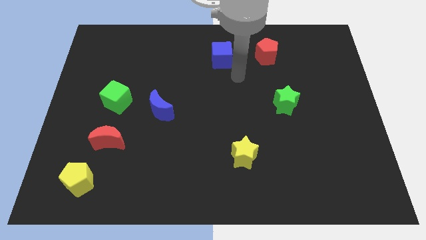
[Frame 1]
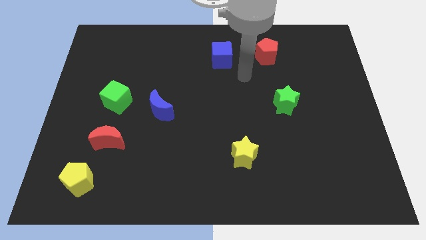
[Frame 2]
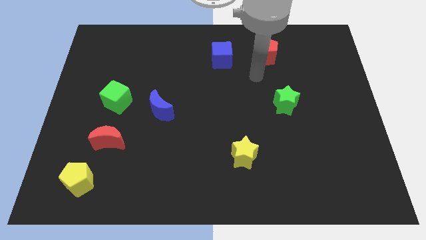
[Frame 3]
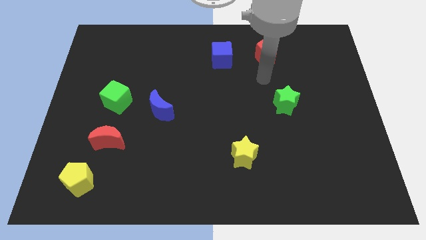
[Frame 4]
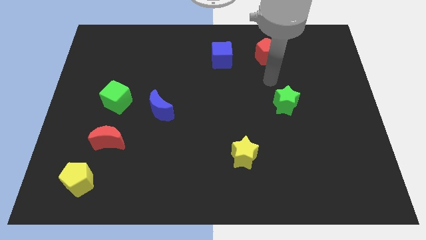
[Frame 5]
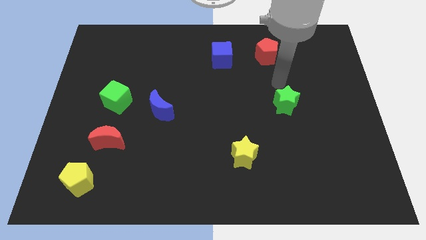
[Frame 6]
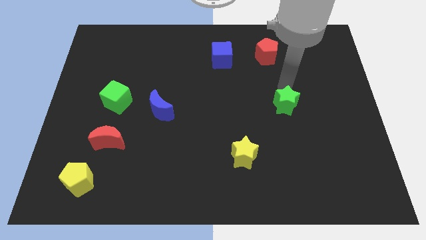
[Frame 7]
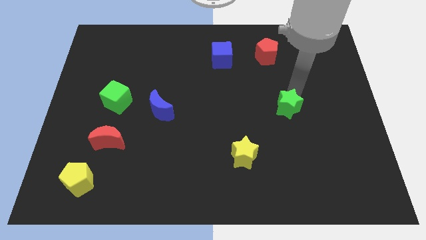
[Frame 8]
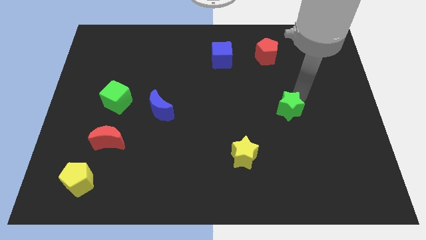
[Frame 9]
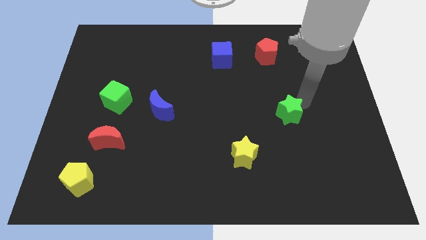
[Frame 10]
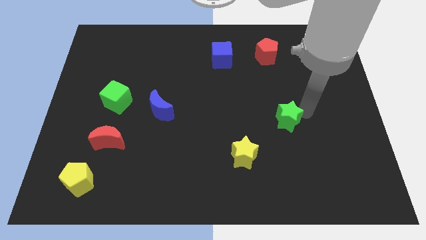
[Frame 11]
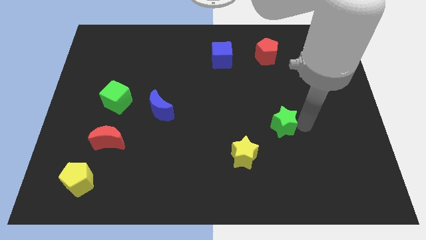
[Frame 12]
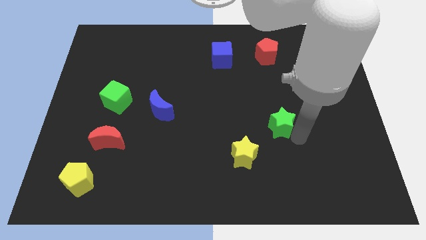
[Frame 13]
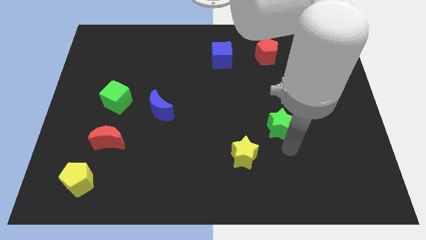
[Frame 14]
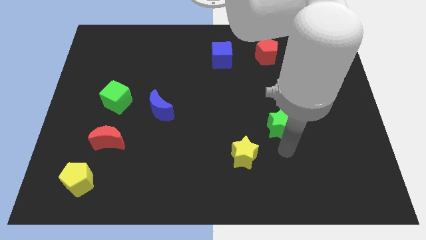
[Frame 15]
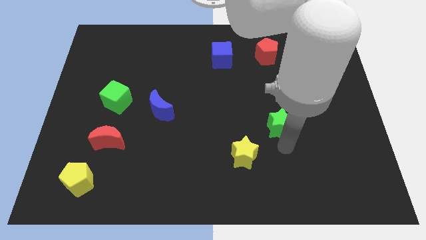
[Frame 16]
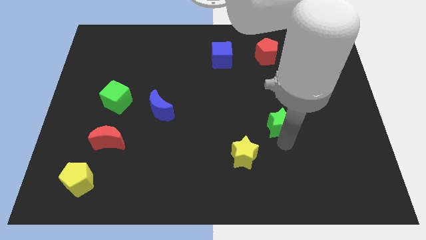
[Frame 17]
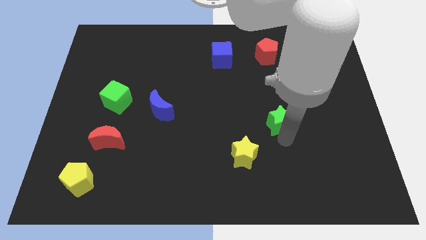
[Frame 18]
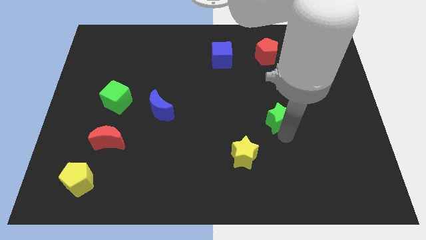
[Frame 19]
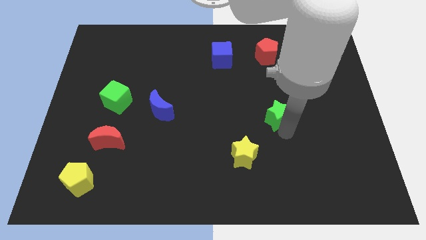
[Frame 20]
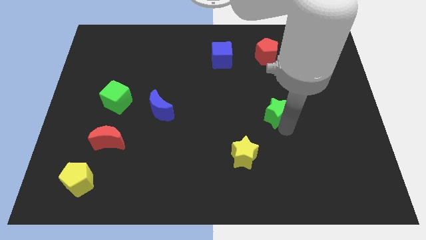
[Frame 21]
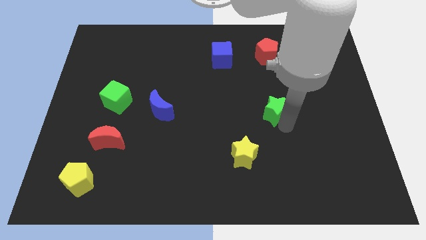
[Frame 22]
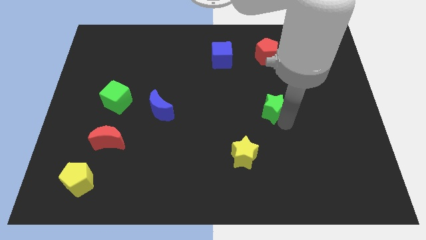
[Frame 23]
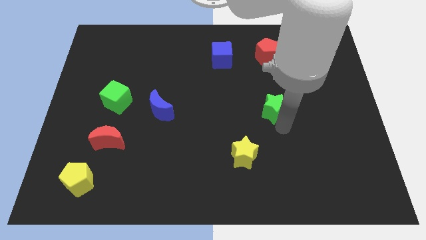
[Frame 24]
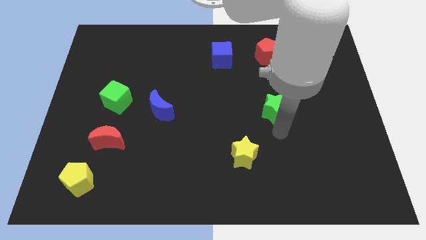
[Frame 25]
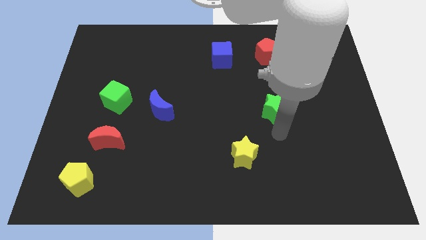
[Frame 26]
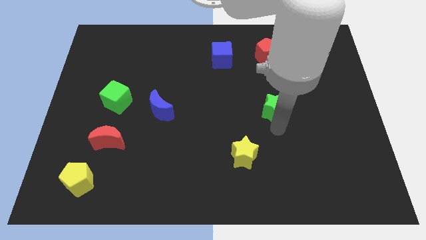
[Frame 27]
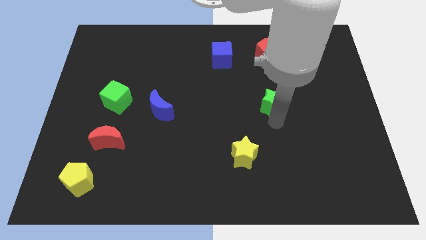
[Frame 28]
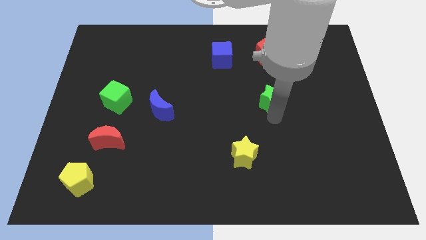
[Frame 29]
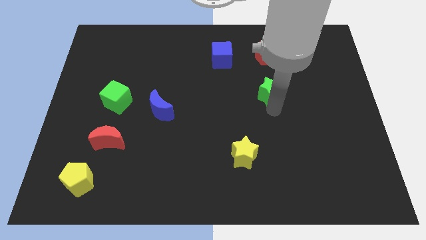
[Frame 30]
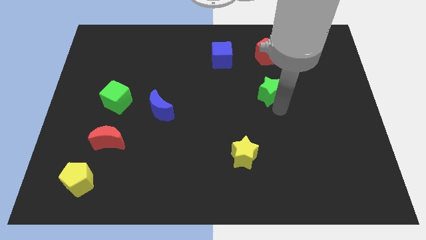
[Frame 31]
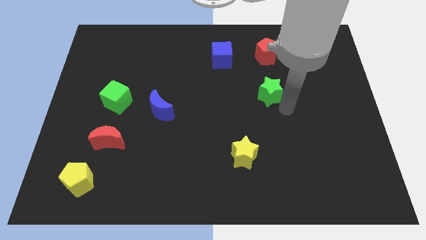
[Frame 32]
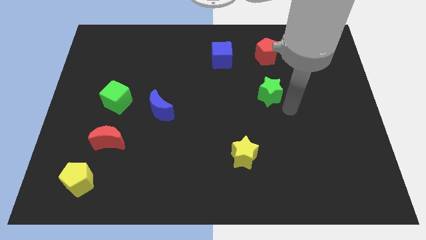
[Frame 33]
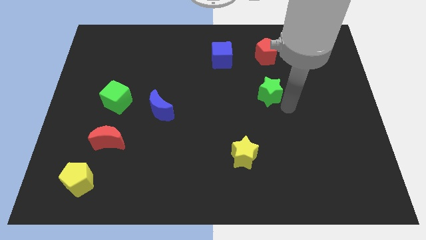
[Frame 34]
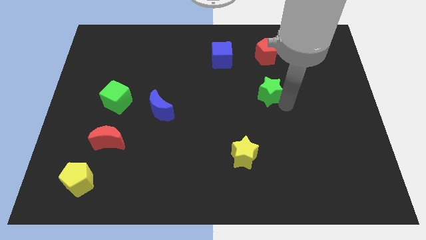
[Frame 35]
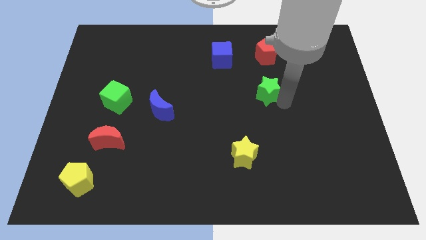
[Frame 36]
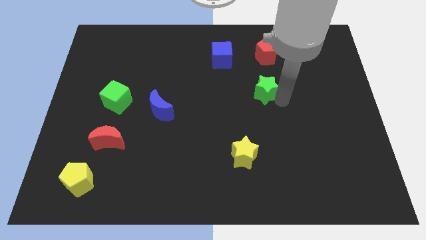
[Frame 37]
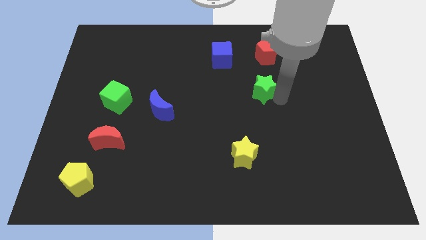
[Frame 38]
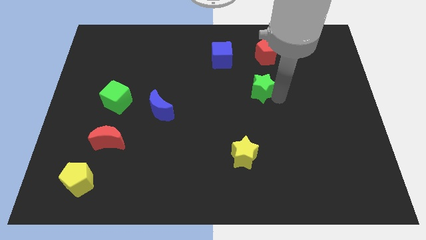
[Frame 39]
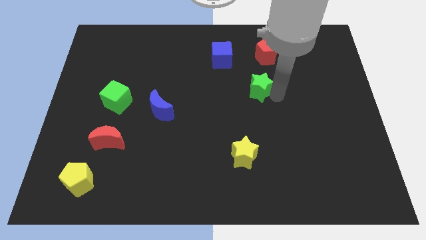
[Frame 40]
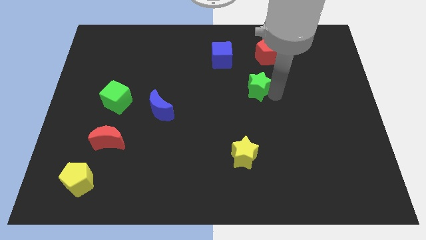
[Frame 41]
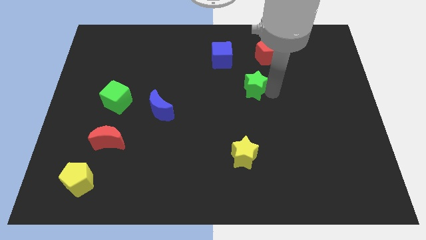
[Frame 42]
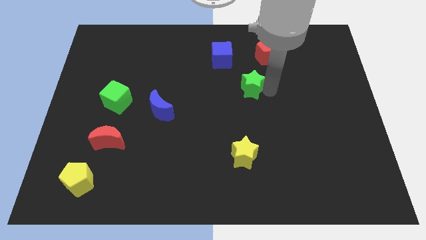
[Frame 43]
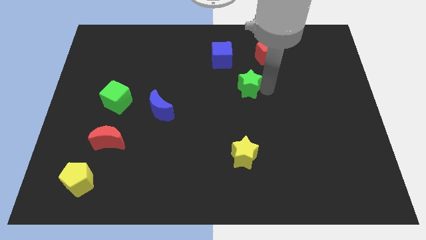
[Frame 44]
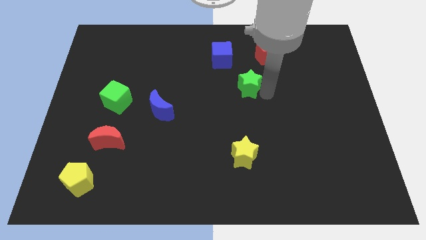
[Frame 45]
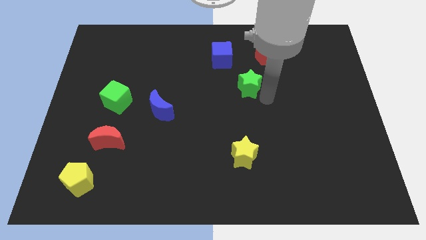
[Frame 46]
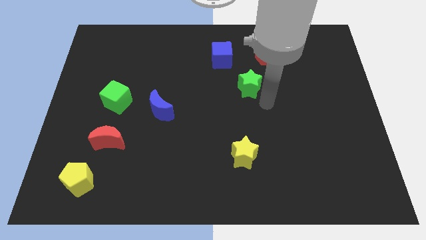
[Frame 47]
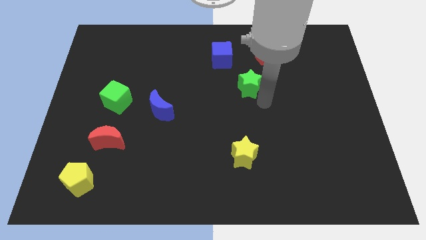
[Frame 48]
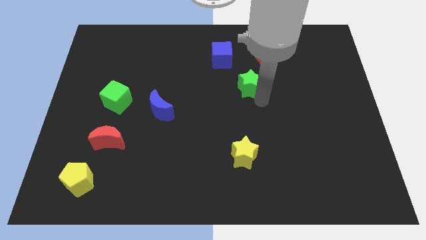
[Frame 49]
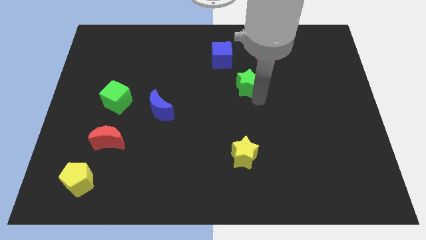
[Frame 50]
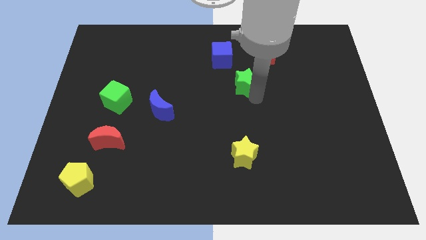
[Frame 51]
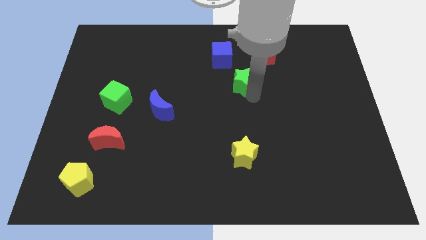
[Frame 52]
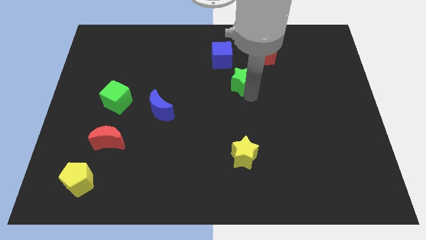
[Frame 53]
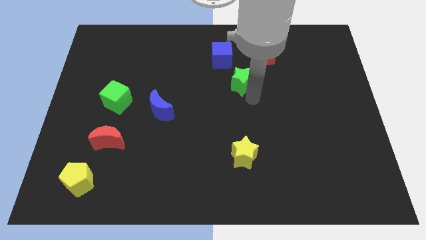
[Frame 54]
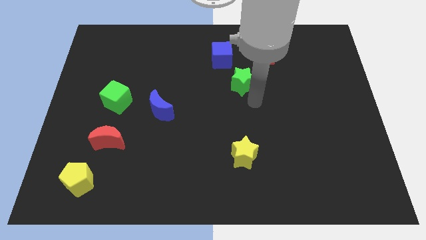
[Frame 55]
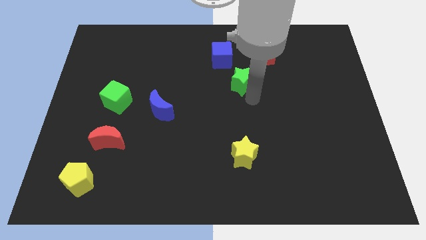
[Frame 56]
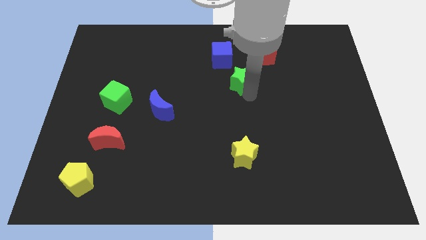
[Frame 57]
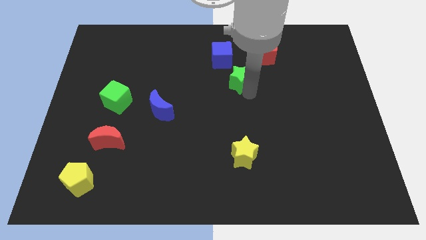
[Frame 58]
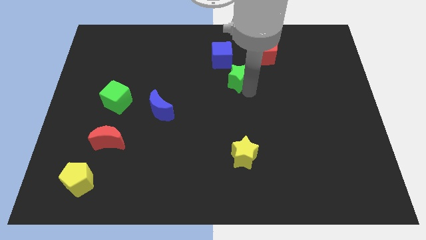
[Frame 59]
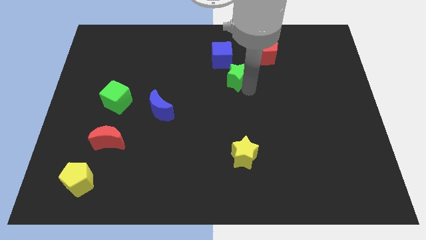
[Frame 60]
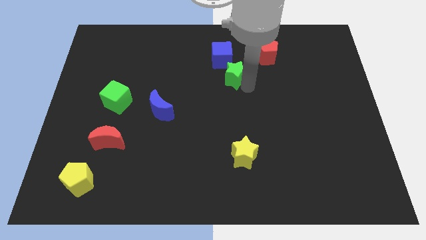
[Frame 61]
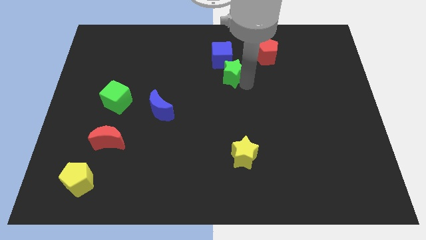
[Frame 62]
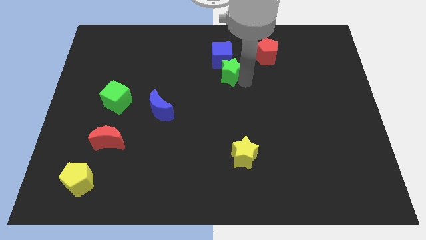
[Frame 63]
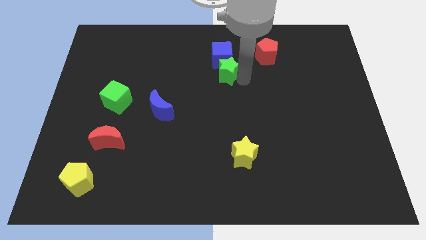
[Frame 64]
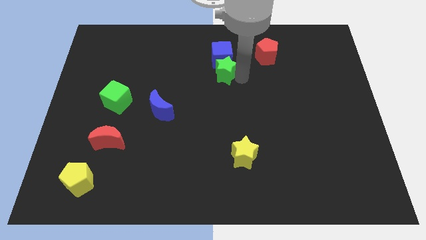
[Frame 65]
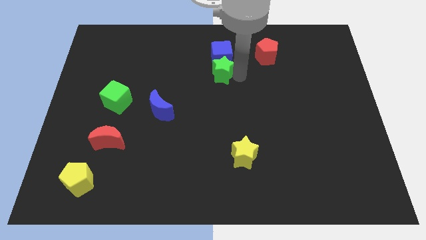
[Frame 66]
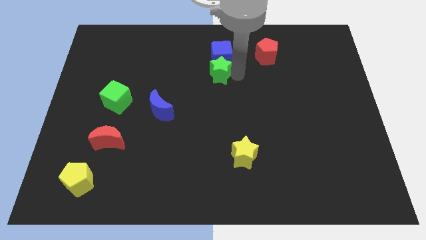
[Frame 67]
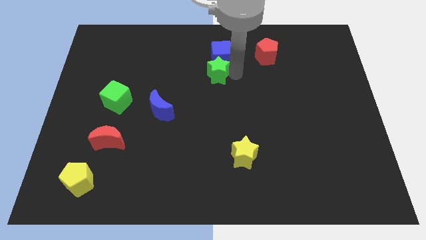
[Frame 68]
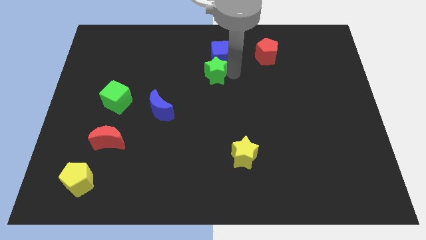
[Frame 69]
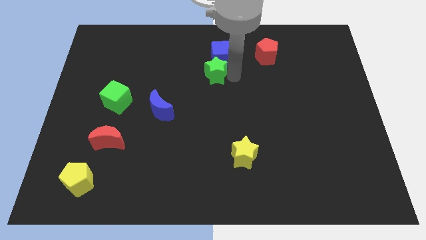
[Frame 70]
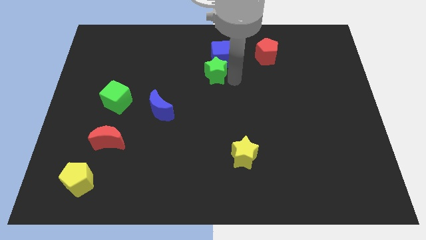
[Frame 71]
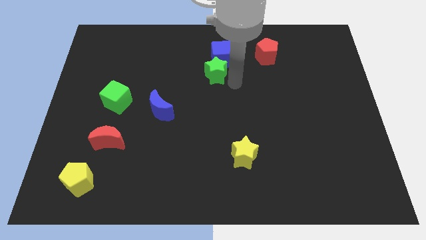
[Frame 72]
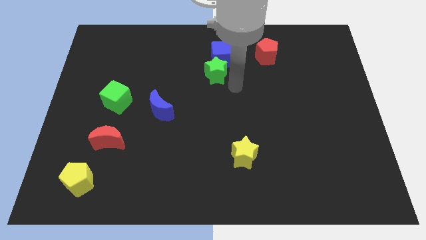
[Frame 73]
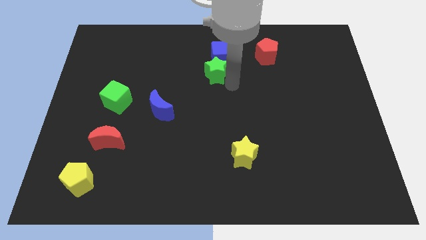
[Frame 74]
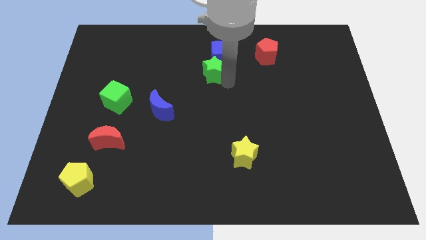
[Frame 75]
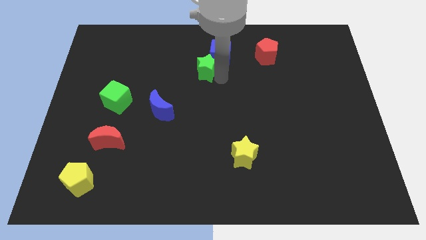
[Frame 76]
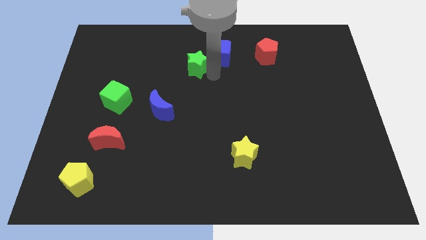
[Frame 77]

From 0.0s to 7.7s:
push the green star to the left side of the blue cube
